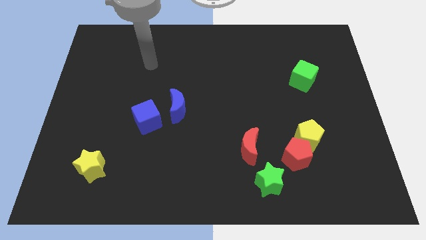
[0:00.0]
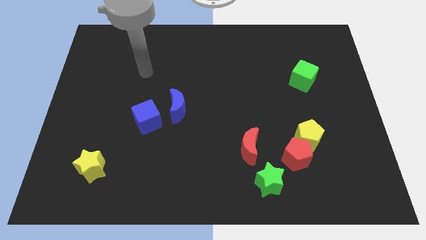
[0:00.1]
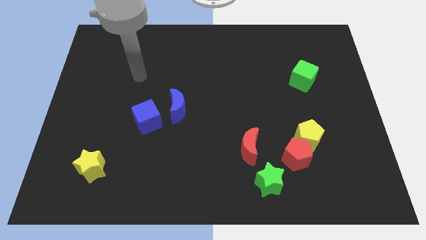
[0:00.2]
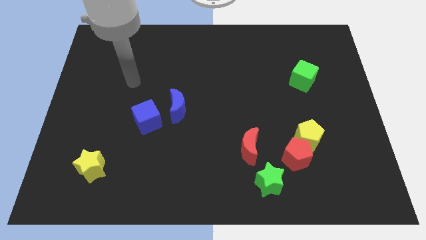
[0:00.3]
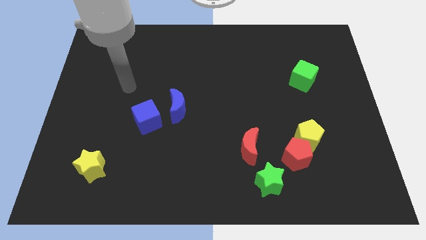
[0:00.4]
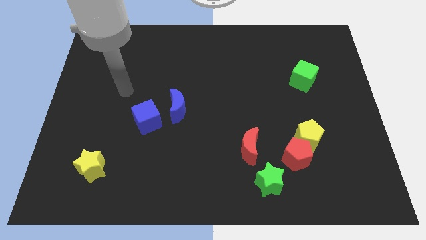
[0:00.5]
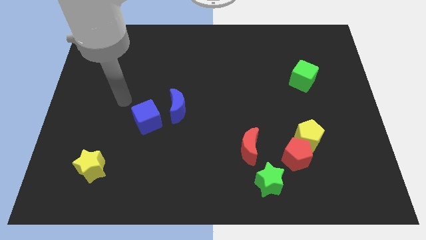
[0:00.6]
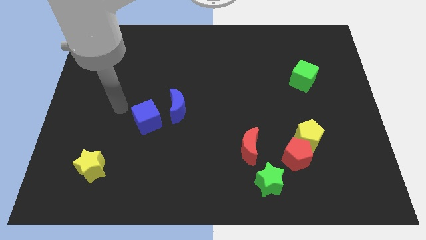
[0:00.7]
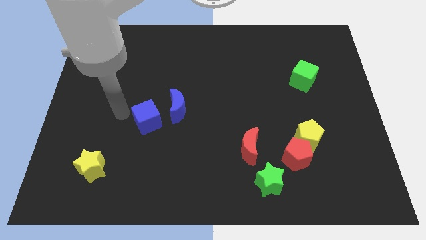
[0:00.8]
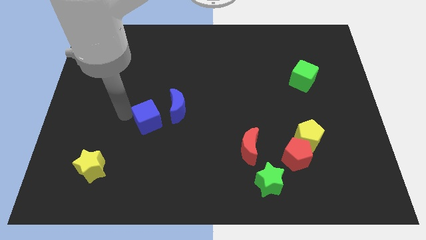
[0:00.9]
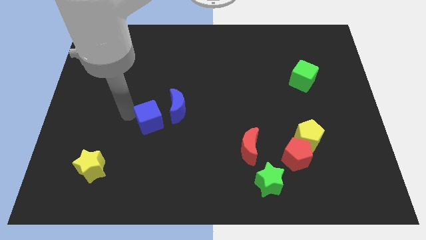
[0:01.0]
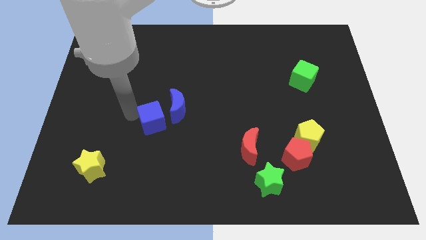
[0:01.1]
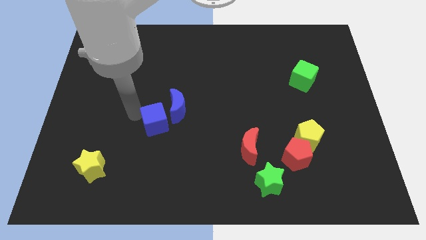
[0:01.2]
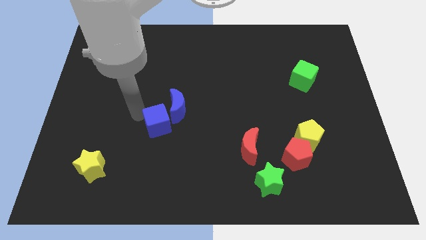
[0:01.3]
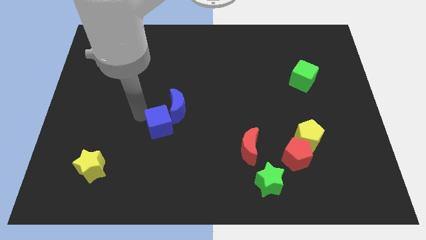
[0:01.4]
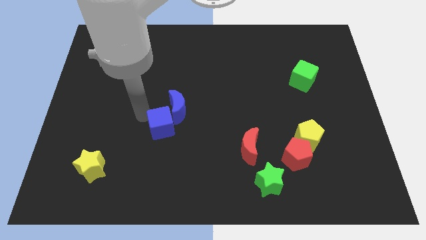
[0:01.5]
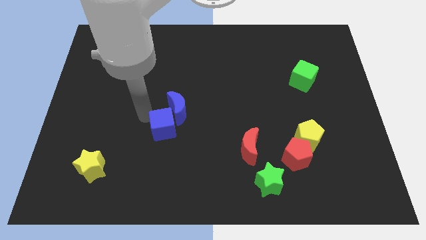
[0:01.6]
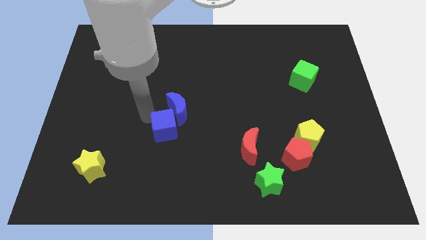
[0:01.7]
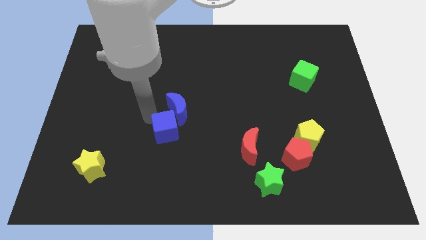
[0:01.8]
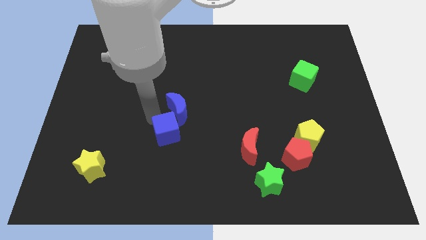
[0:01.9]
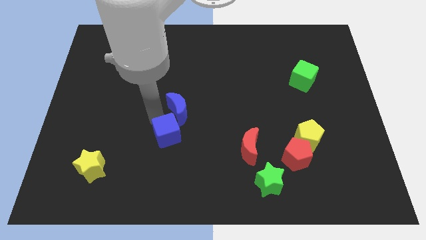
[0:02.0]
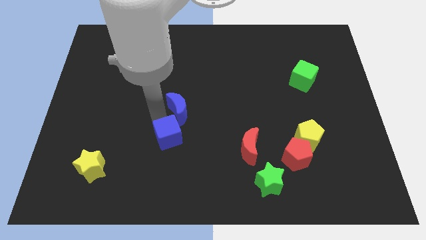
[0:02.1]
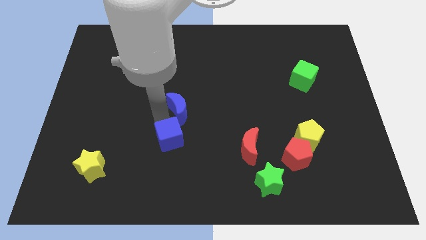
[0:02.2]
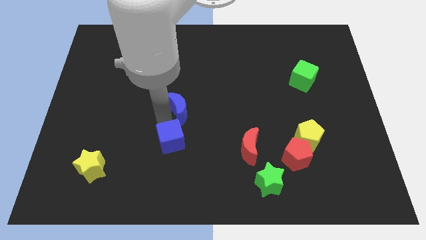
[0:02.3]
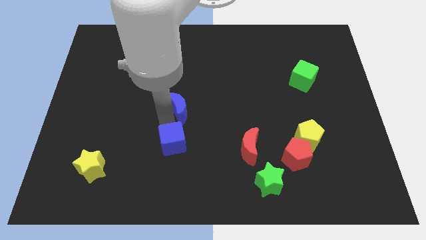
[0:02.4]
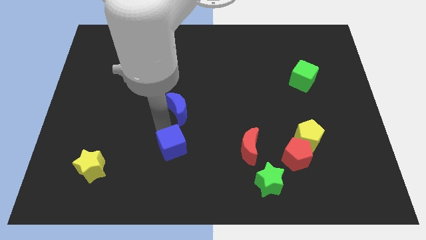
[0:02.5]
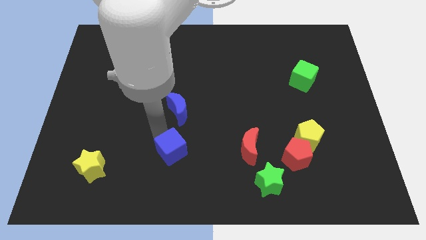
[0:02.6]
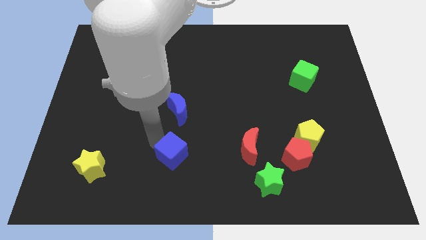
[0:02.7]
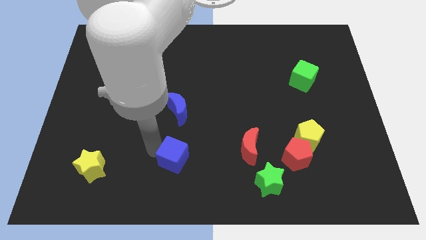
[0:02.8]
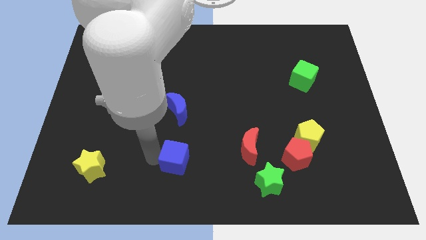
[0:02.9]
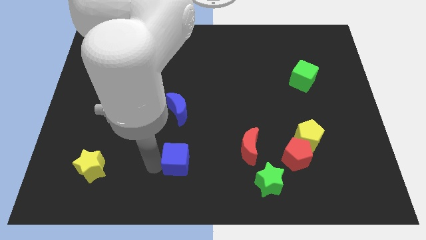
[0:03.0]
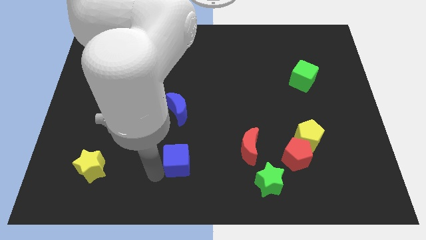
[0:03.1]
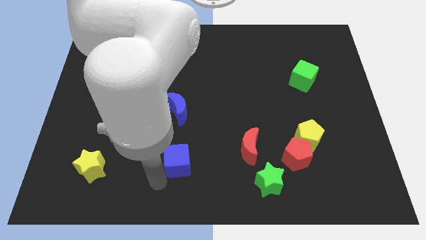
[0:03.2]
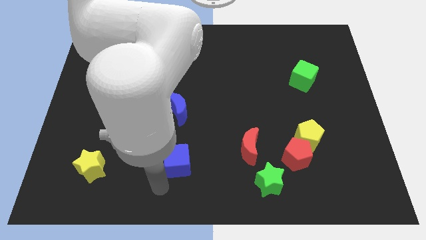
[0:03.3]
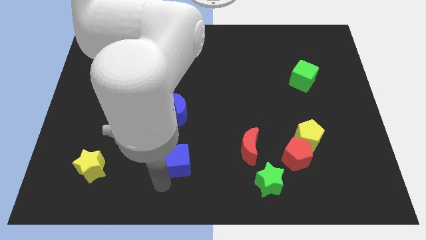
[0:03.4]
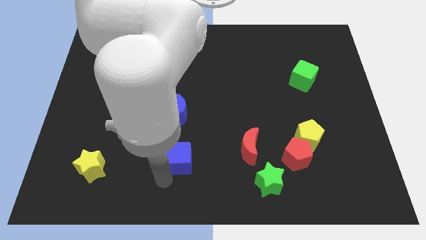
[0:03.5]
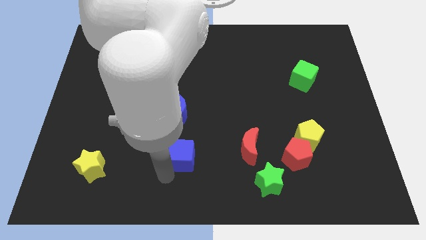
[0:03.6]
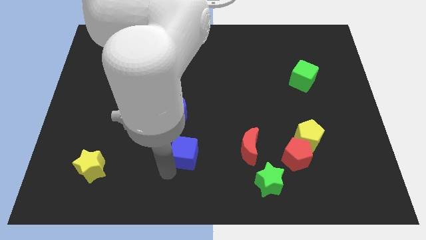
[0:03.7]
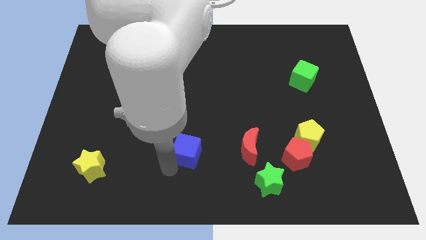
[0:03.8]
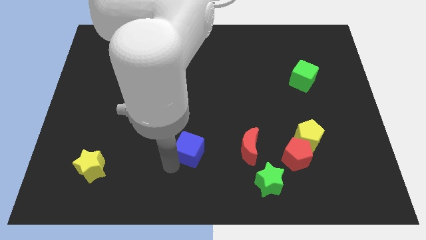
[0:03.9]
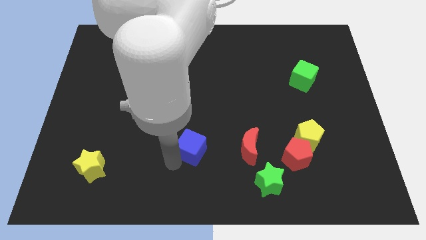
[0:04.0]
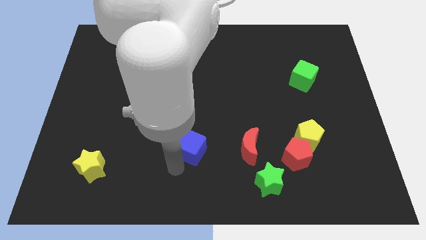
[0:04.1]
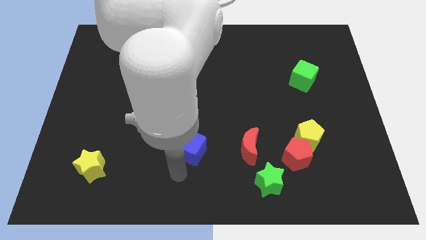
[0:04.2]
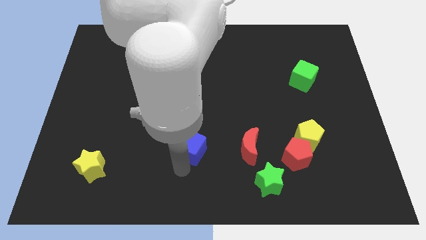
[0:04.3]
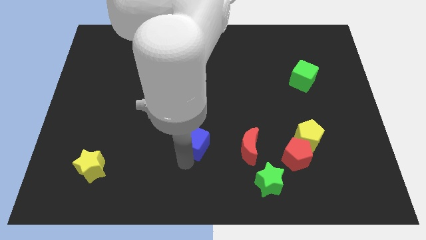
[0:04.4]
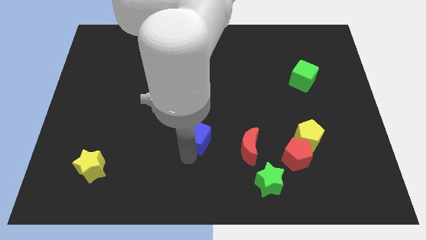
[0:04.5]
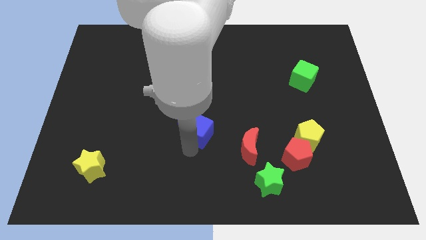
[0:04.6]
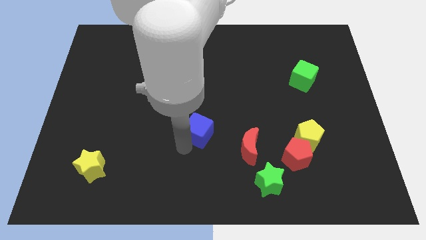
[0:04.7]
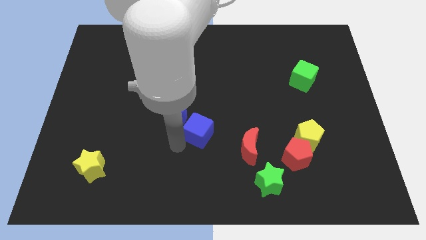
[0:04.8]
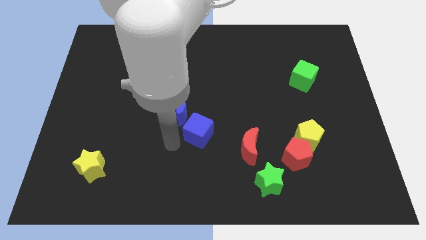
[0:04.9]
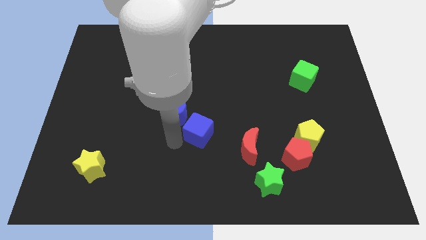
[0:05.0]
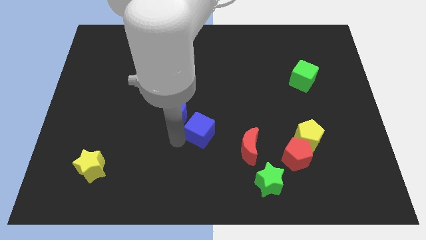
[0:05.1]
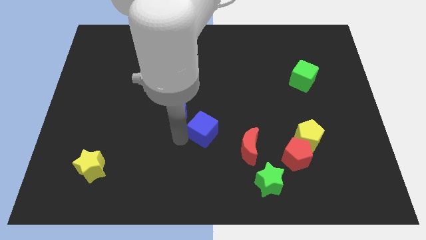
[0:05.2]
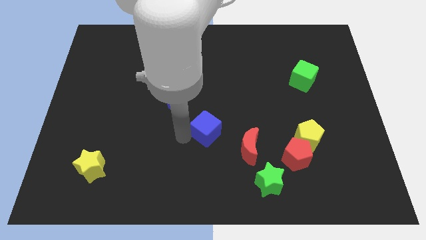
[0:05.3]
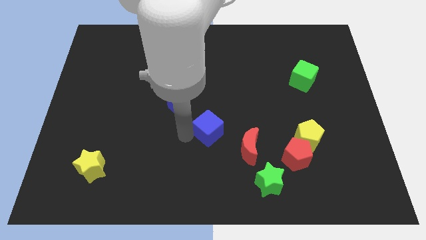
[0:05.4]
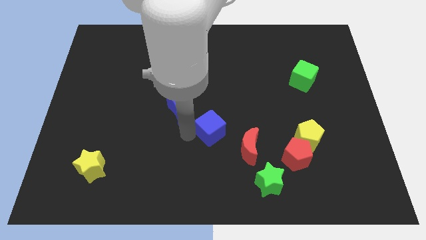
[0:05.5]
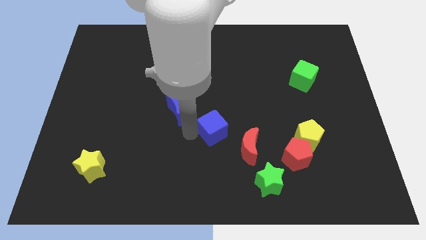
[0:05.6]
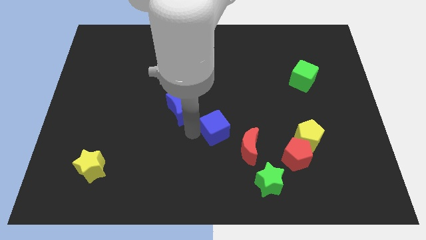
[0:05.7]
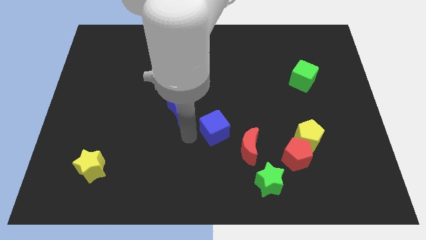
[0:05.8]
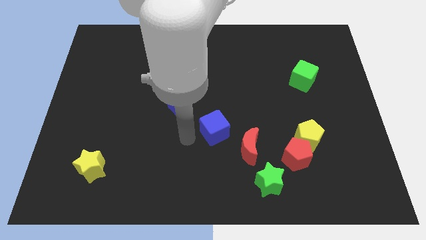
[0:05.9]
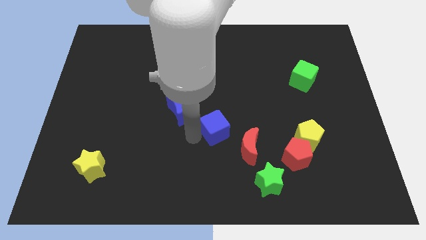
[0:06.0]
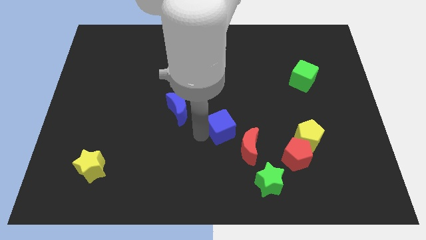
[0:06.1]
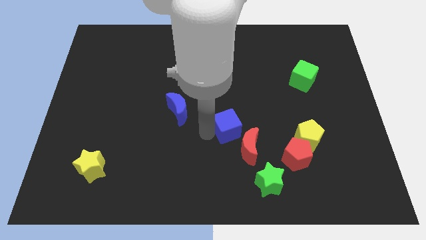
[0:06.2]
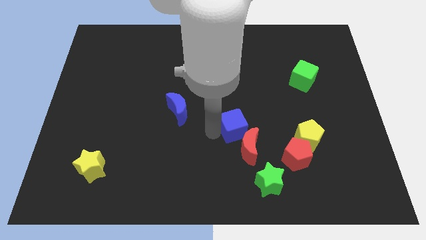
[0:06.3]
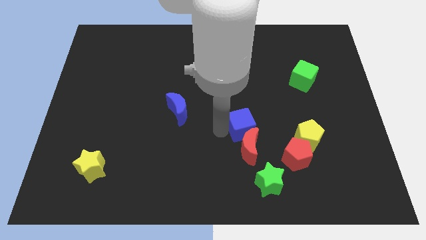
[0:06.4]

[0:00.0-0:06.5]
push the blue cube to the right

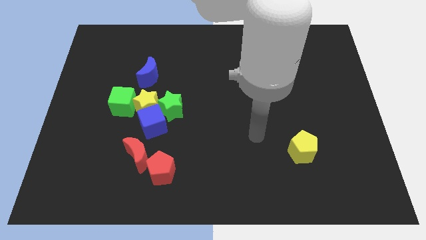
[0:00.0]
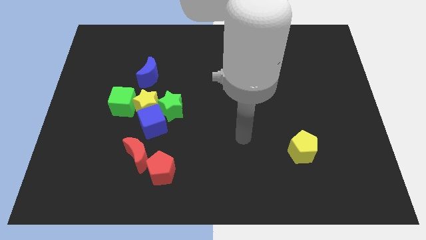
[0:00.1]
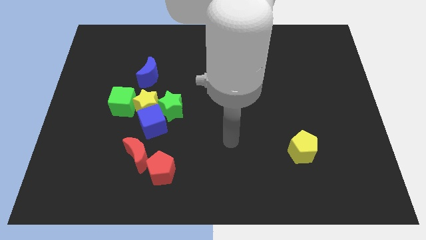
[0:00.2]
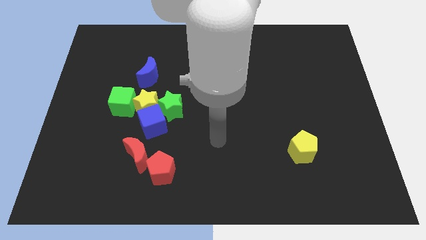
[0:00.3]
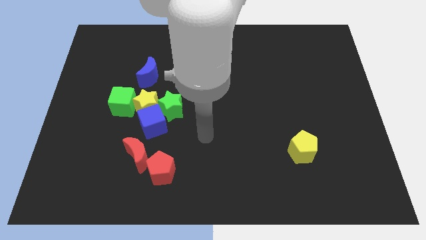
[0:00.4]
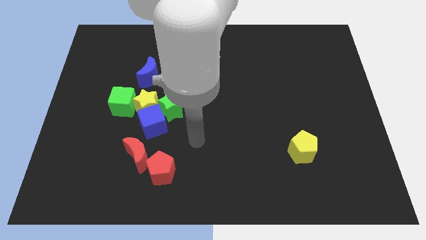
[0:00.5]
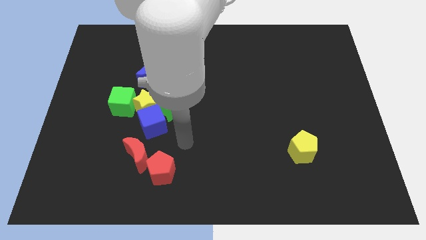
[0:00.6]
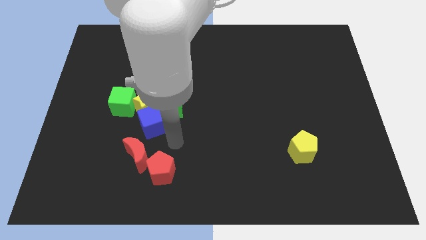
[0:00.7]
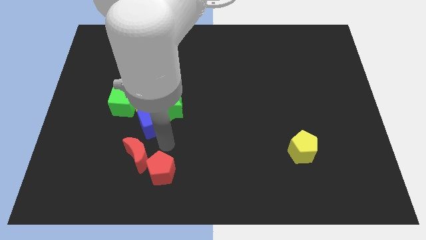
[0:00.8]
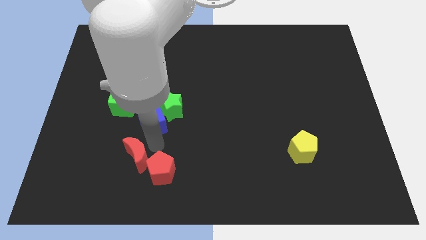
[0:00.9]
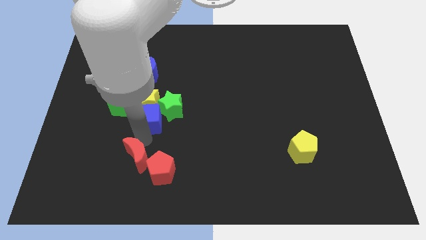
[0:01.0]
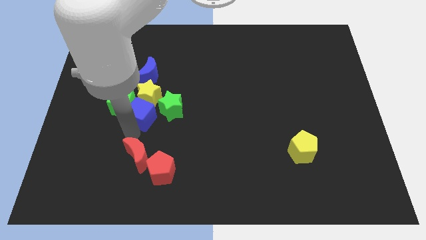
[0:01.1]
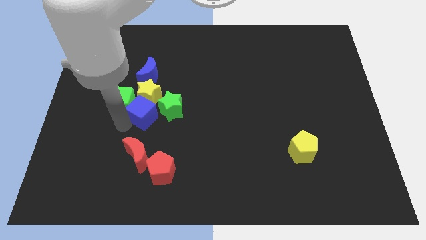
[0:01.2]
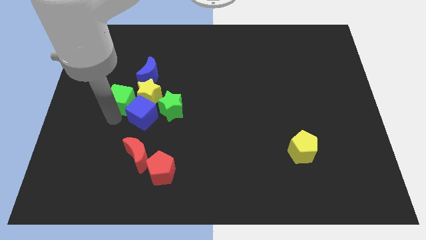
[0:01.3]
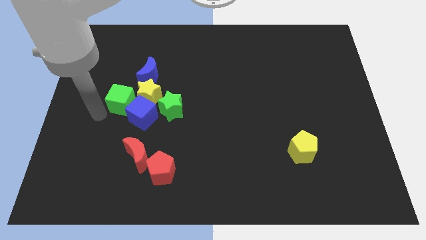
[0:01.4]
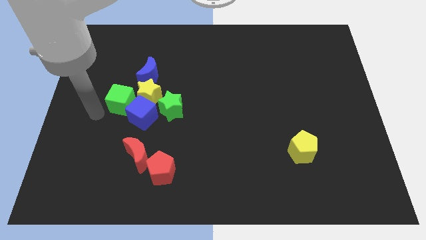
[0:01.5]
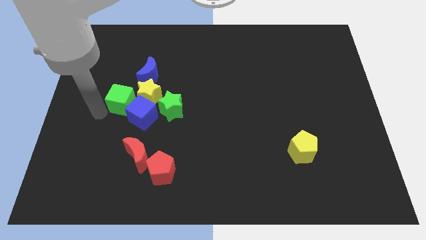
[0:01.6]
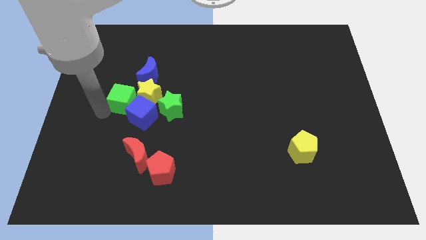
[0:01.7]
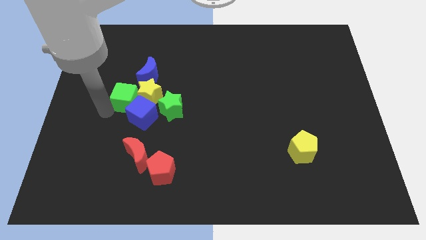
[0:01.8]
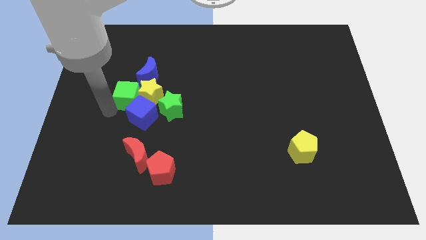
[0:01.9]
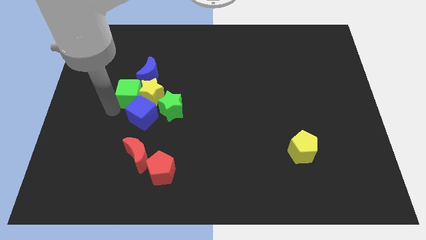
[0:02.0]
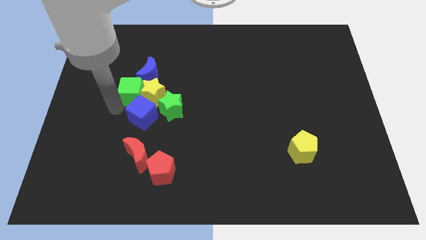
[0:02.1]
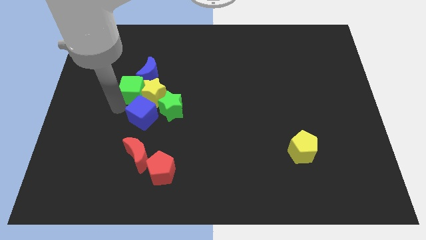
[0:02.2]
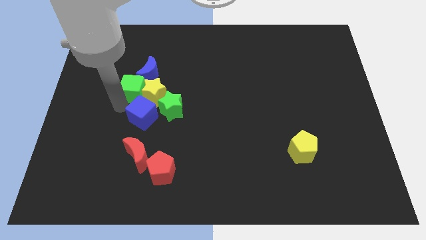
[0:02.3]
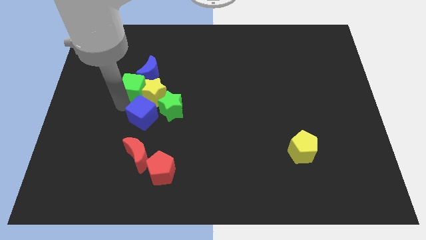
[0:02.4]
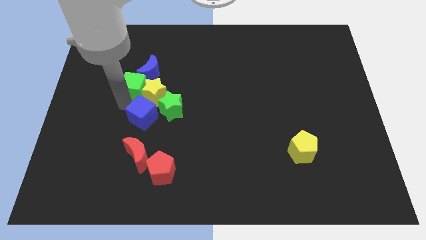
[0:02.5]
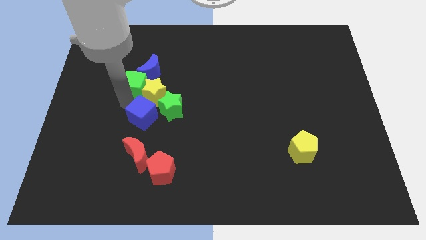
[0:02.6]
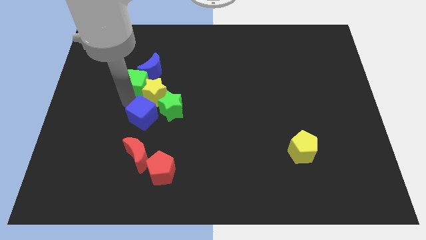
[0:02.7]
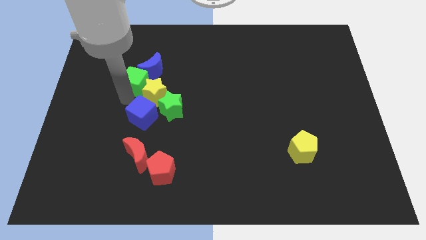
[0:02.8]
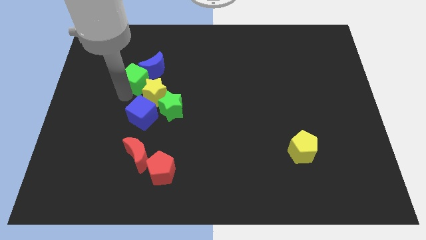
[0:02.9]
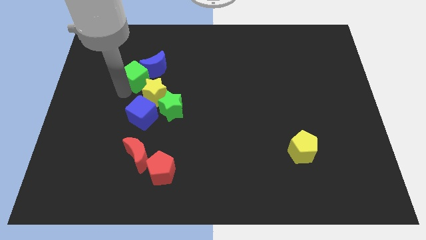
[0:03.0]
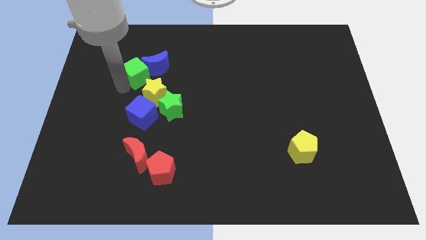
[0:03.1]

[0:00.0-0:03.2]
slightly slide the green cube up and right
